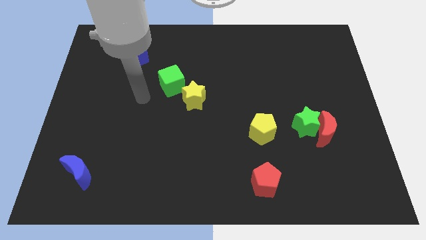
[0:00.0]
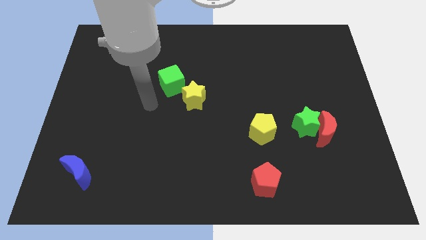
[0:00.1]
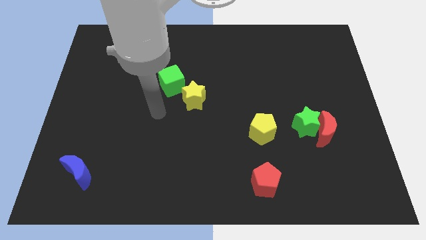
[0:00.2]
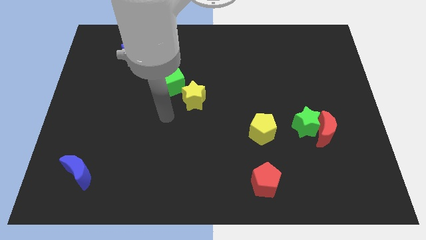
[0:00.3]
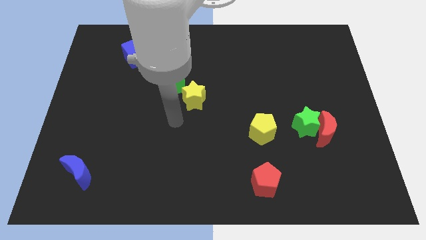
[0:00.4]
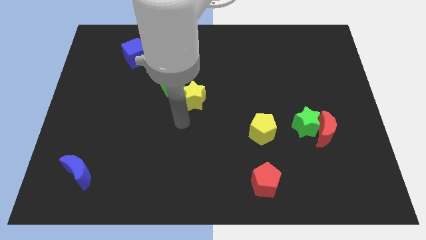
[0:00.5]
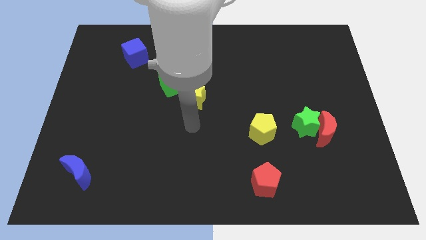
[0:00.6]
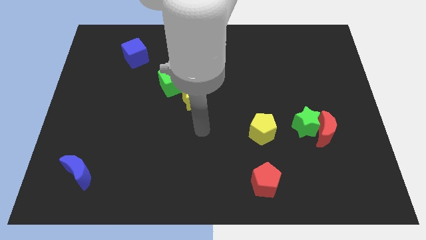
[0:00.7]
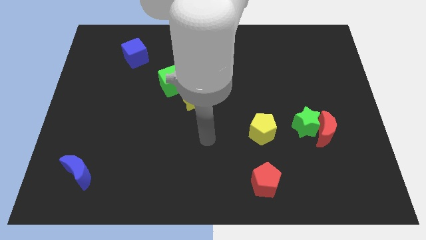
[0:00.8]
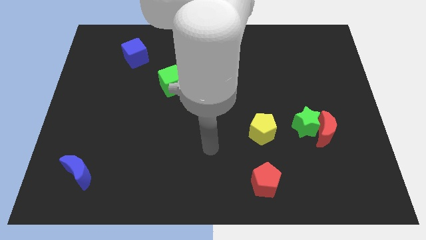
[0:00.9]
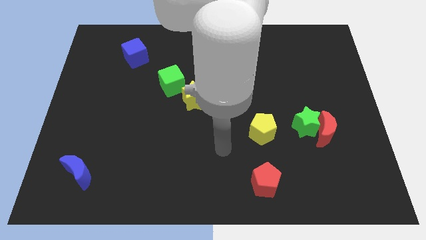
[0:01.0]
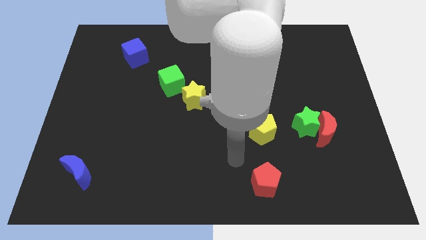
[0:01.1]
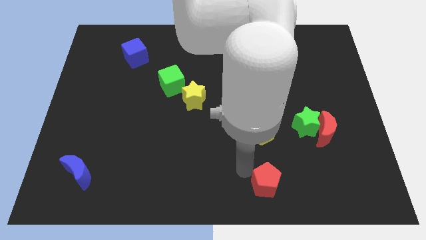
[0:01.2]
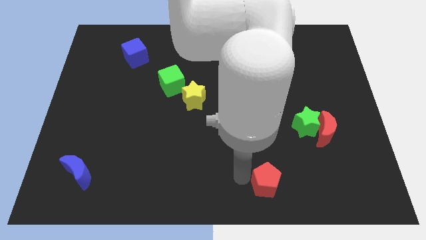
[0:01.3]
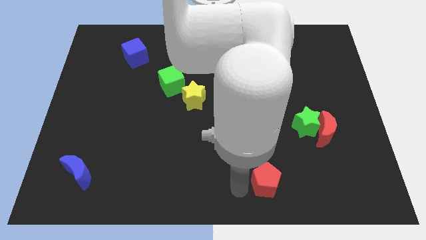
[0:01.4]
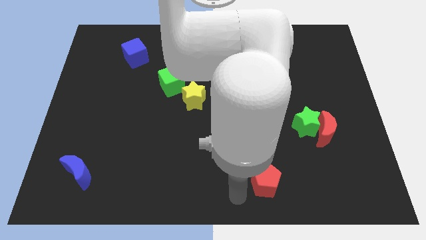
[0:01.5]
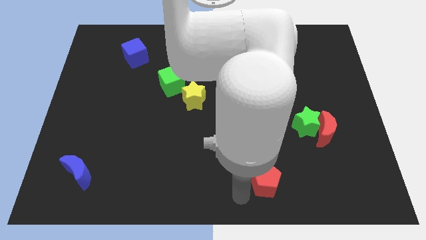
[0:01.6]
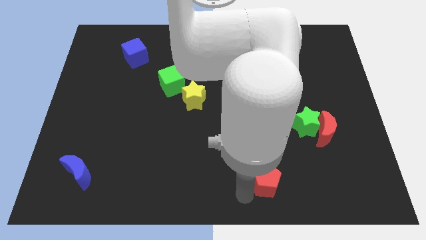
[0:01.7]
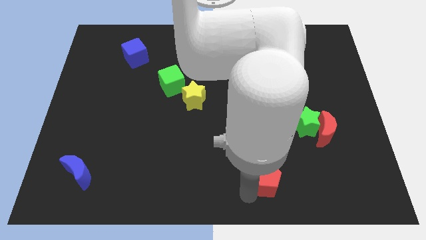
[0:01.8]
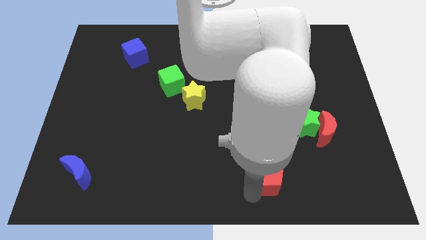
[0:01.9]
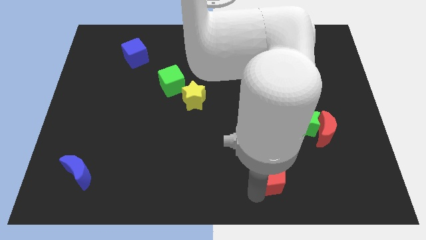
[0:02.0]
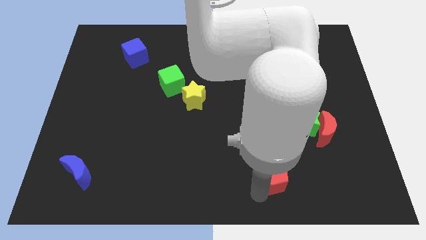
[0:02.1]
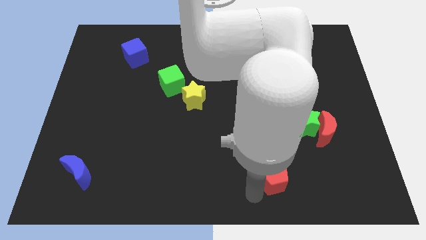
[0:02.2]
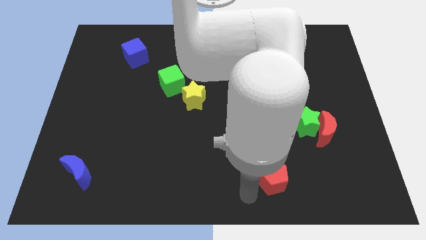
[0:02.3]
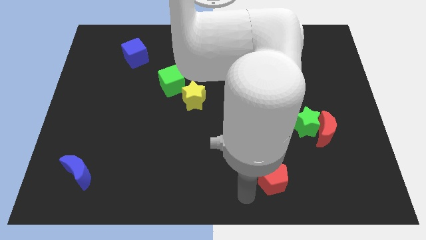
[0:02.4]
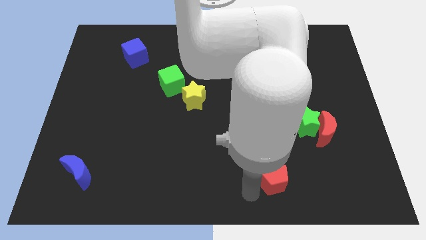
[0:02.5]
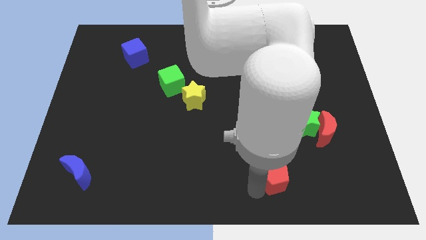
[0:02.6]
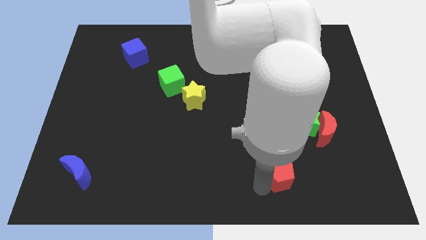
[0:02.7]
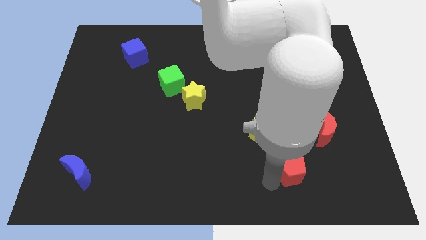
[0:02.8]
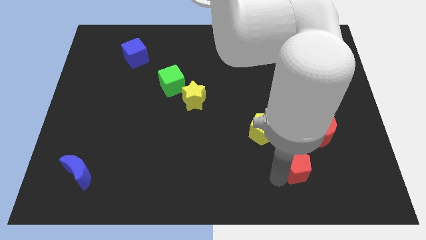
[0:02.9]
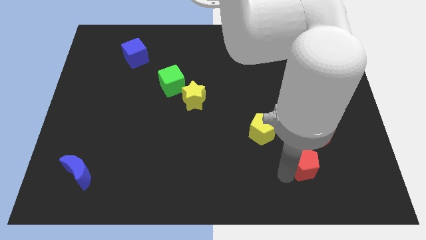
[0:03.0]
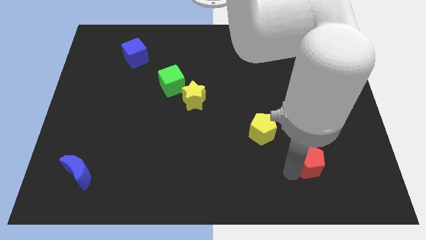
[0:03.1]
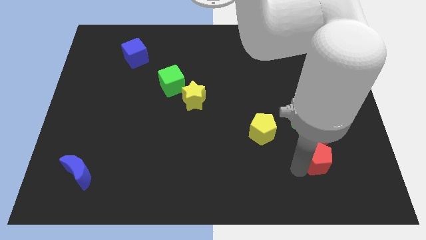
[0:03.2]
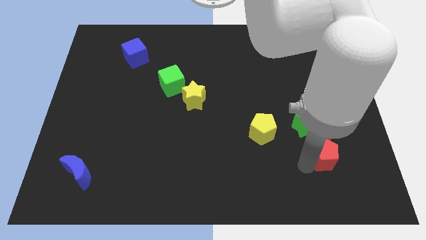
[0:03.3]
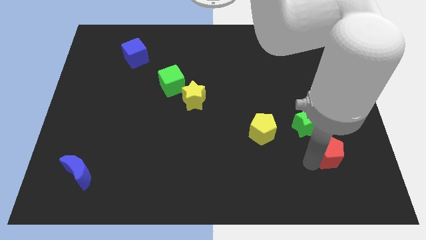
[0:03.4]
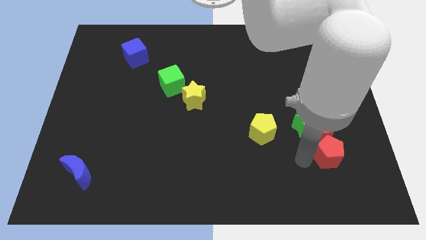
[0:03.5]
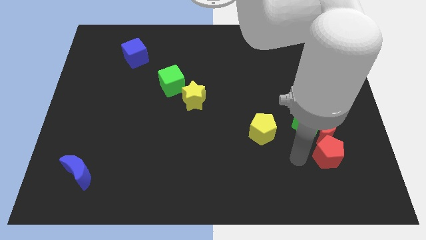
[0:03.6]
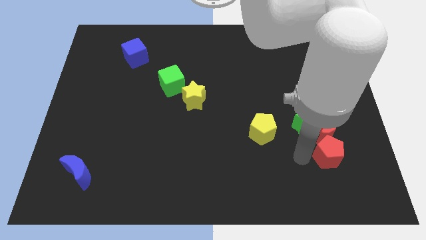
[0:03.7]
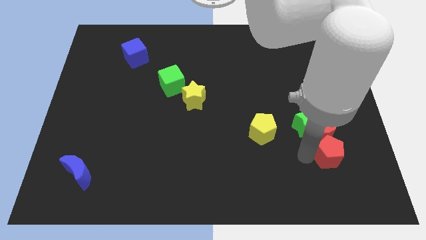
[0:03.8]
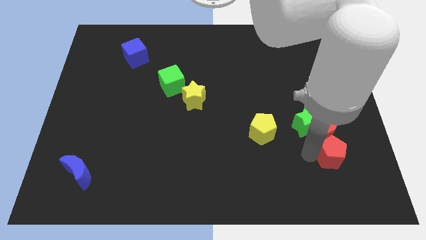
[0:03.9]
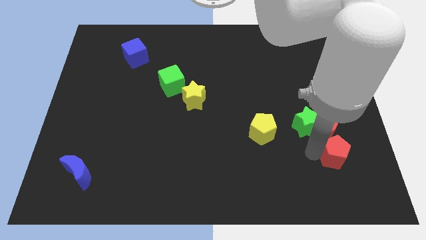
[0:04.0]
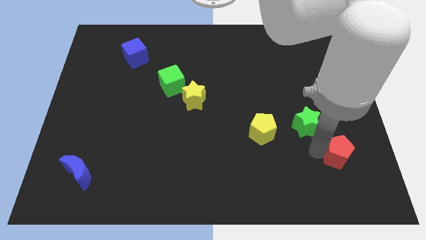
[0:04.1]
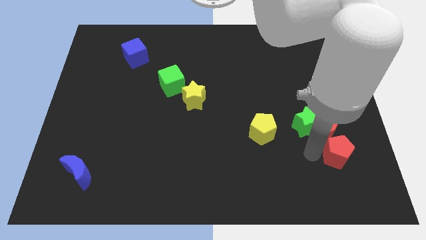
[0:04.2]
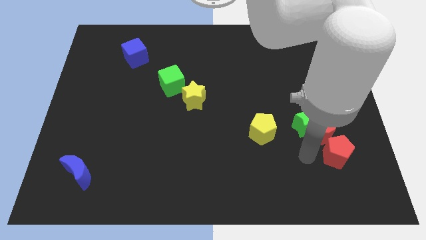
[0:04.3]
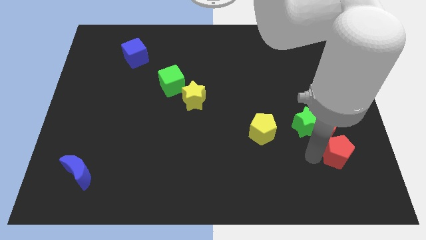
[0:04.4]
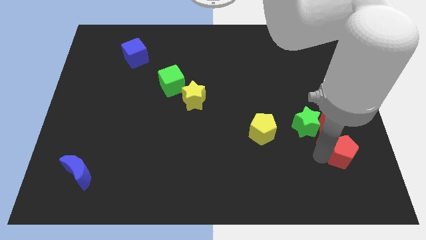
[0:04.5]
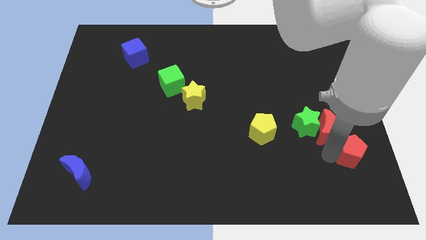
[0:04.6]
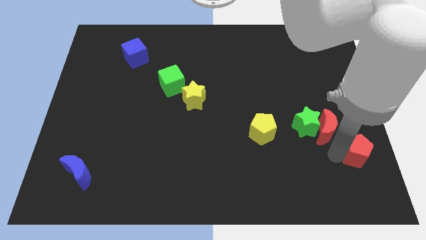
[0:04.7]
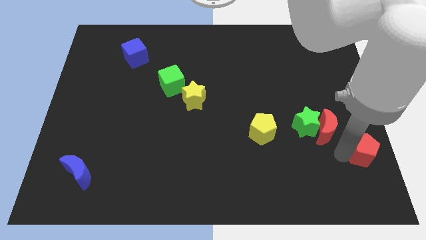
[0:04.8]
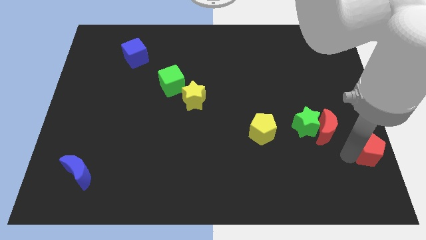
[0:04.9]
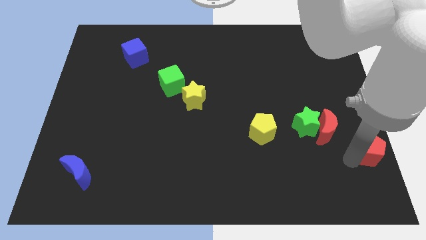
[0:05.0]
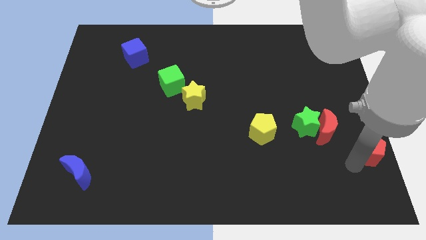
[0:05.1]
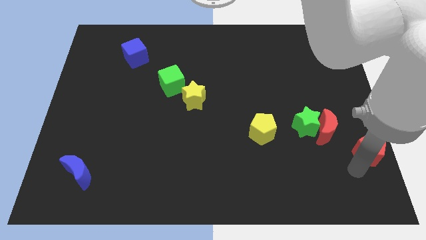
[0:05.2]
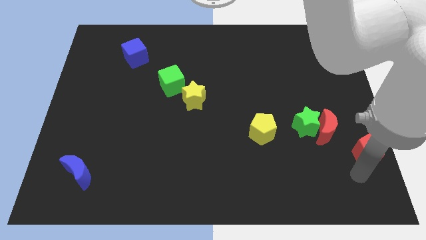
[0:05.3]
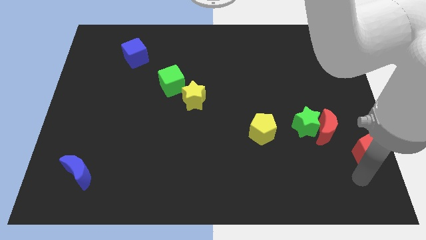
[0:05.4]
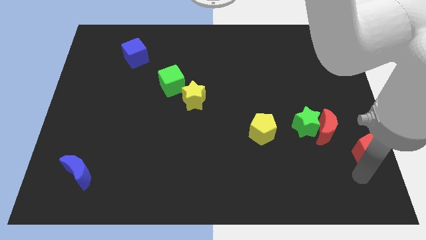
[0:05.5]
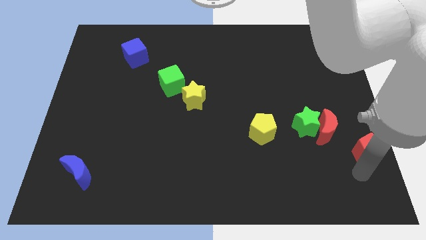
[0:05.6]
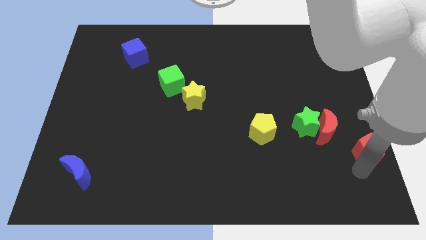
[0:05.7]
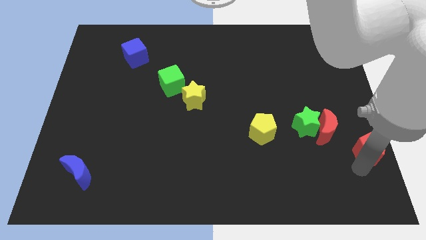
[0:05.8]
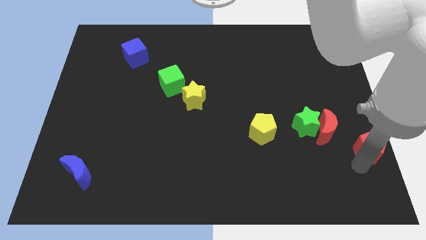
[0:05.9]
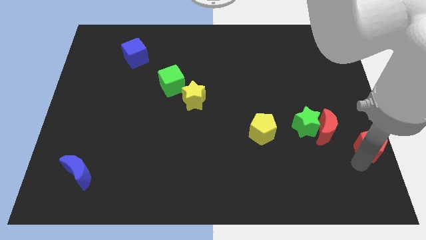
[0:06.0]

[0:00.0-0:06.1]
put the red pentagon to the center right
